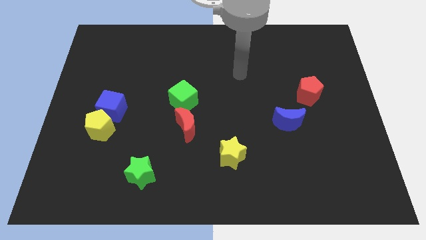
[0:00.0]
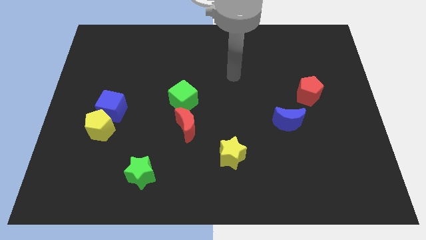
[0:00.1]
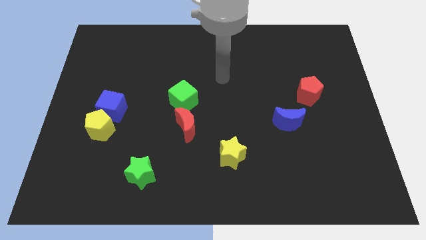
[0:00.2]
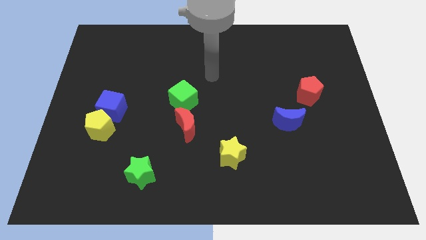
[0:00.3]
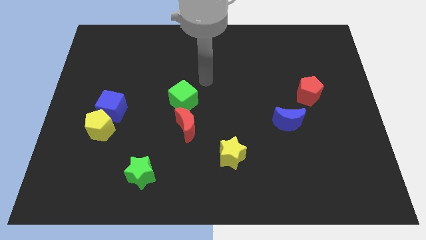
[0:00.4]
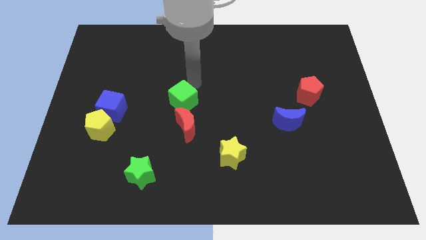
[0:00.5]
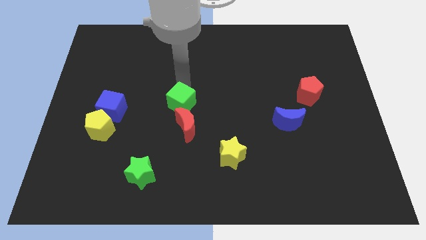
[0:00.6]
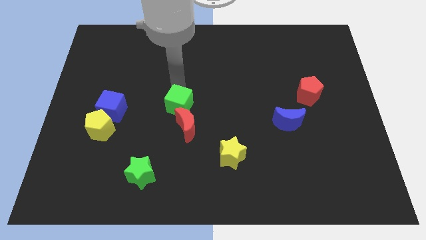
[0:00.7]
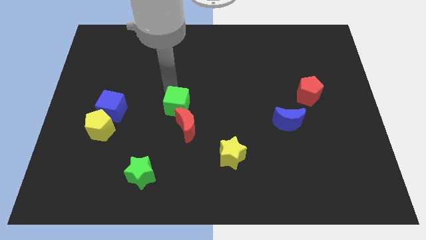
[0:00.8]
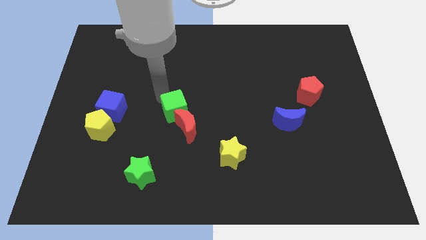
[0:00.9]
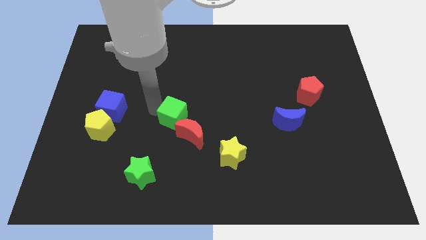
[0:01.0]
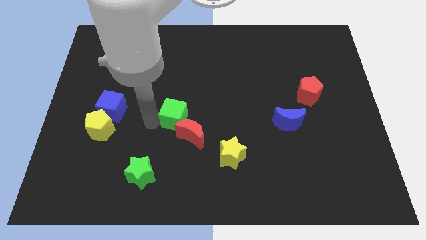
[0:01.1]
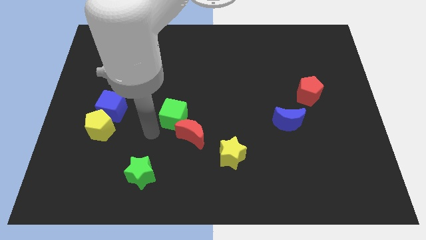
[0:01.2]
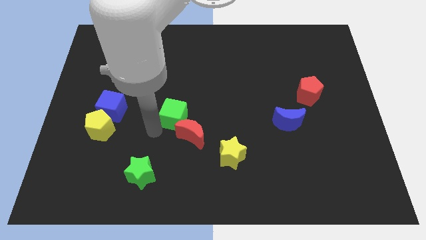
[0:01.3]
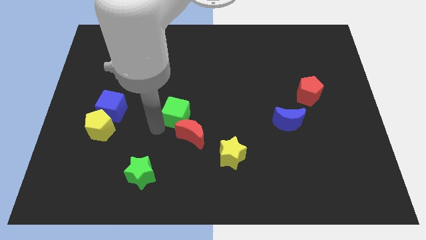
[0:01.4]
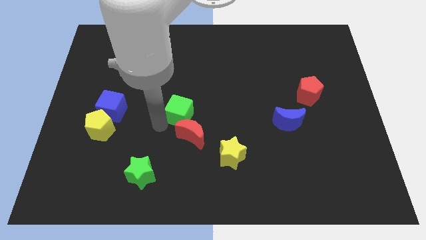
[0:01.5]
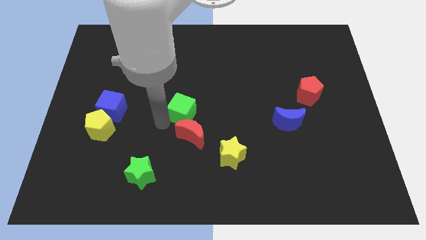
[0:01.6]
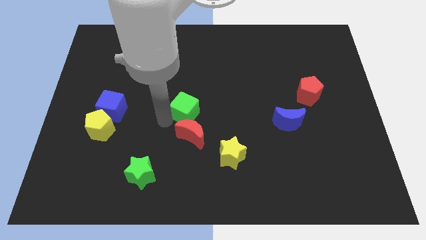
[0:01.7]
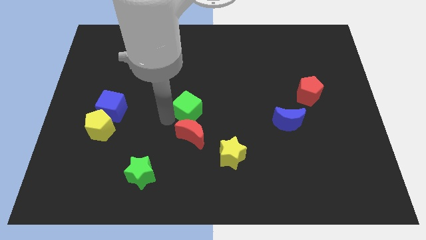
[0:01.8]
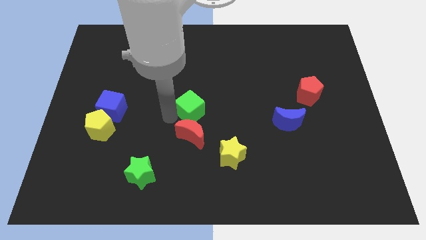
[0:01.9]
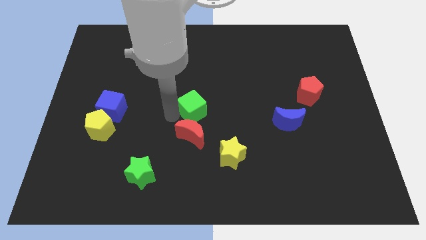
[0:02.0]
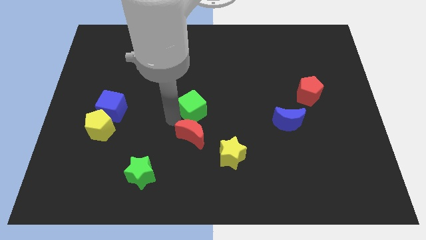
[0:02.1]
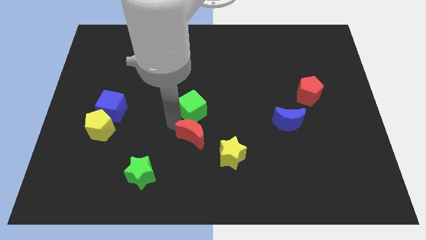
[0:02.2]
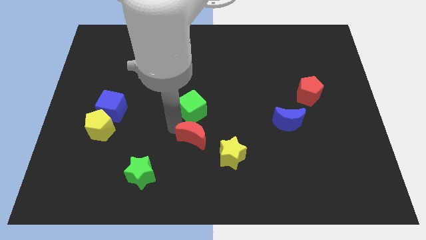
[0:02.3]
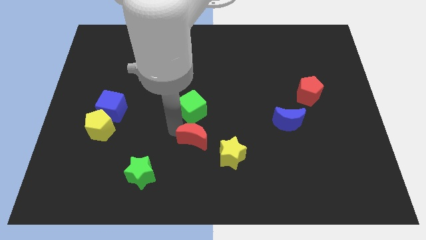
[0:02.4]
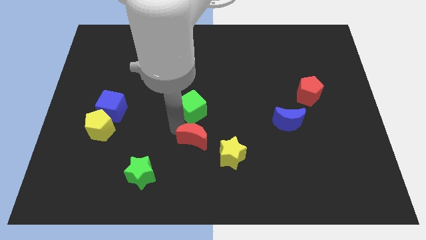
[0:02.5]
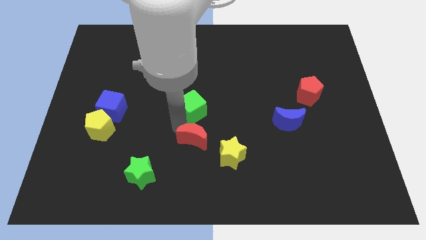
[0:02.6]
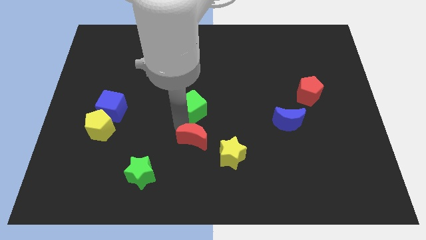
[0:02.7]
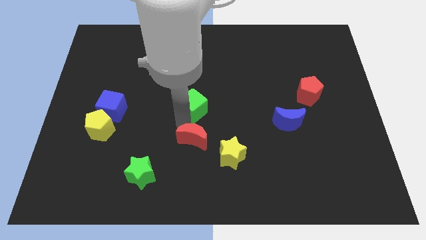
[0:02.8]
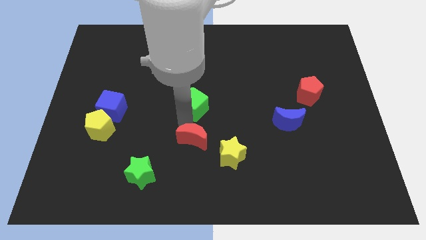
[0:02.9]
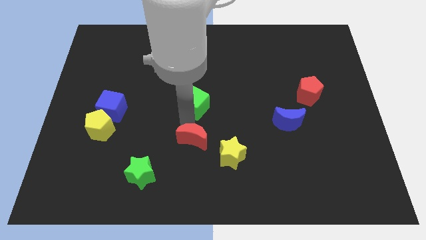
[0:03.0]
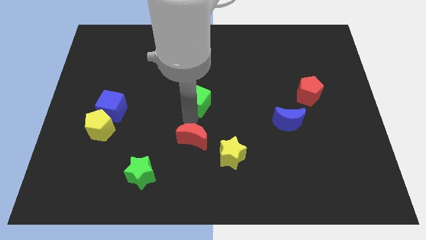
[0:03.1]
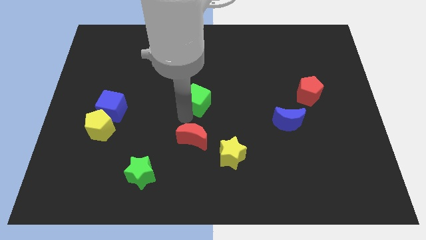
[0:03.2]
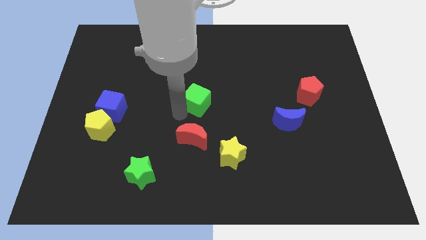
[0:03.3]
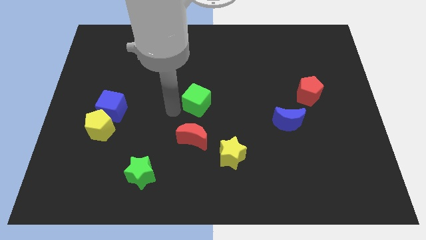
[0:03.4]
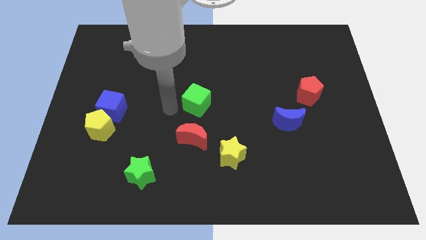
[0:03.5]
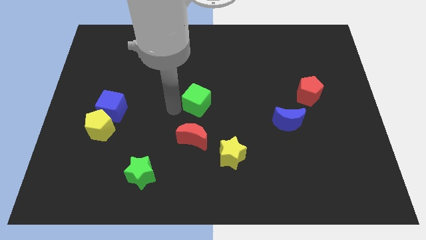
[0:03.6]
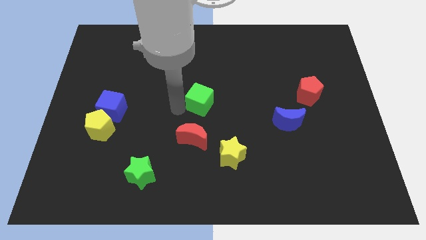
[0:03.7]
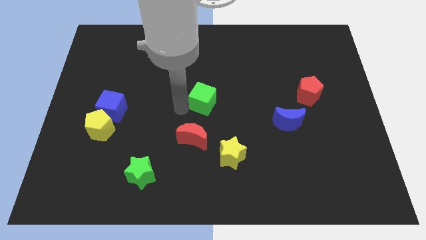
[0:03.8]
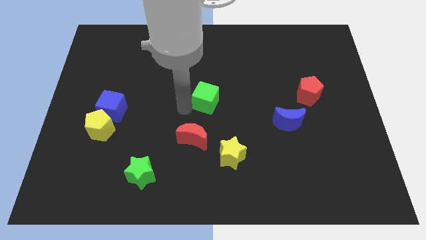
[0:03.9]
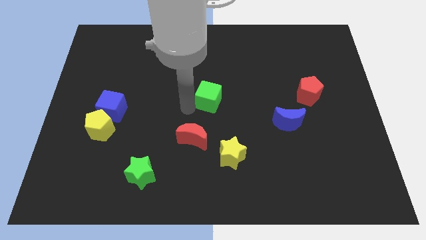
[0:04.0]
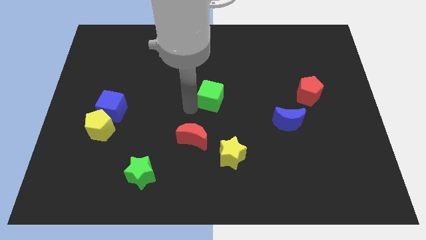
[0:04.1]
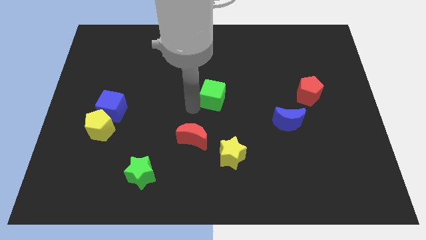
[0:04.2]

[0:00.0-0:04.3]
slightly slide the green cube to the right

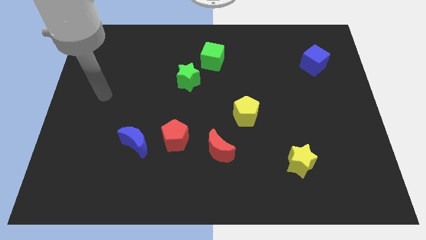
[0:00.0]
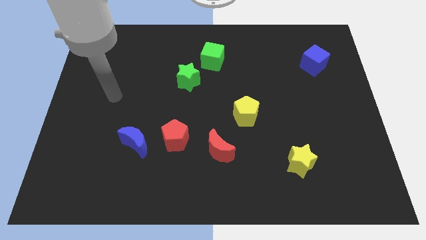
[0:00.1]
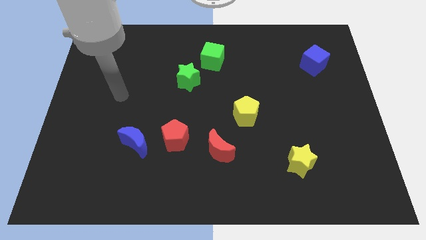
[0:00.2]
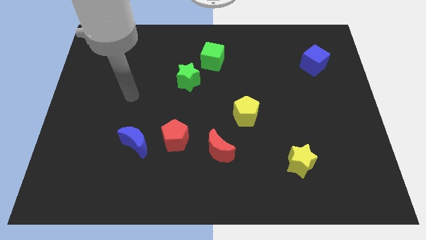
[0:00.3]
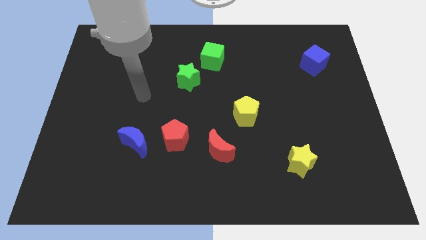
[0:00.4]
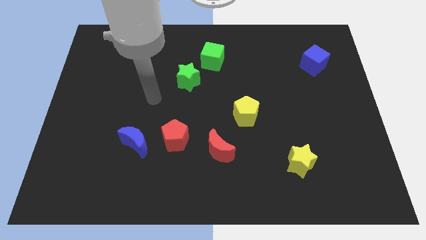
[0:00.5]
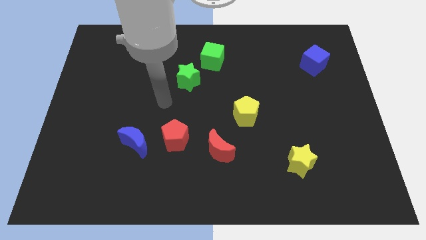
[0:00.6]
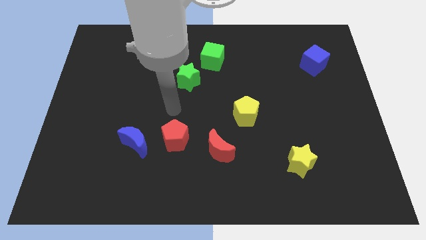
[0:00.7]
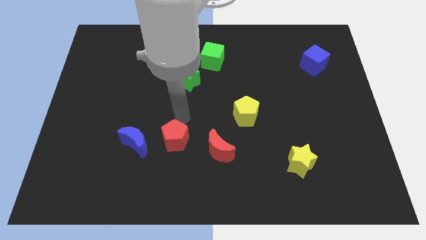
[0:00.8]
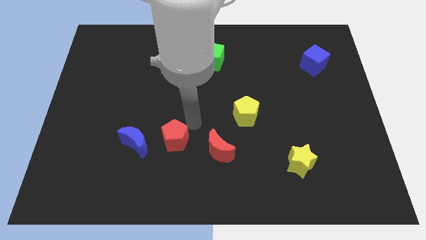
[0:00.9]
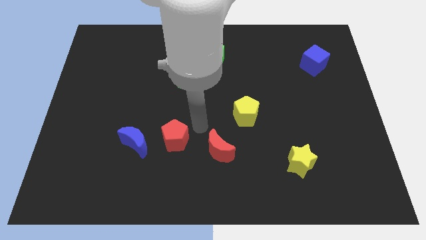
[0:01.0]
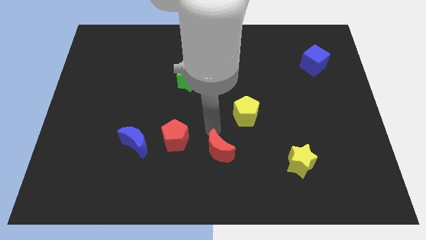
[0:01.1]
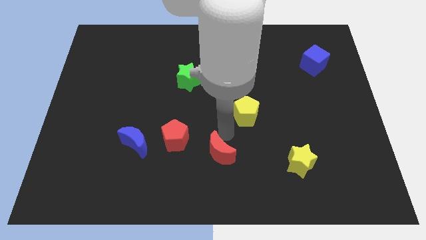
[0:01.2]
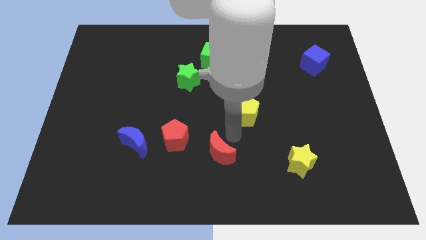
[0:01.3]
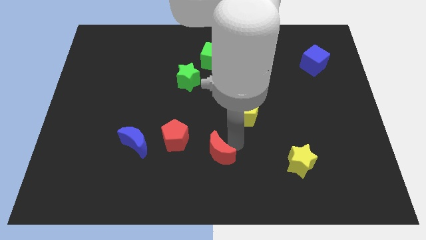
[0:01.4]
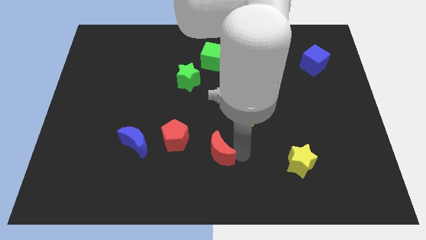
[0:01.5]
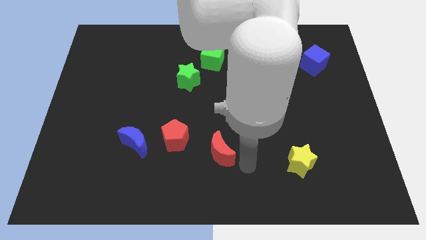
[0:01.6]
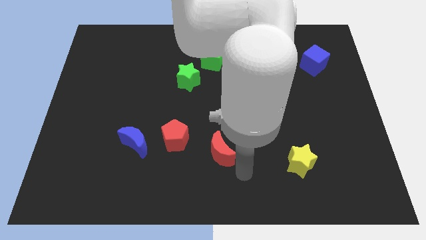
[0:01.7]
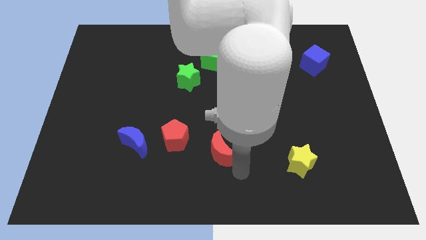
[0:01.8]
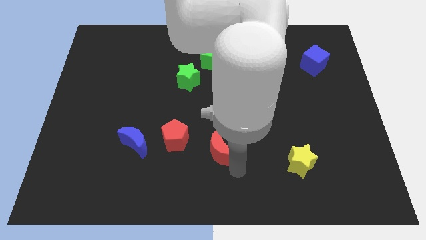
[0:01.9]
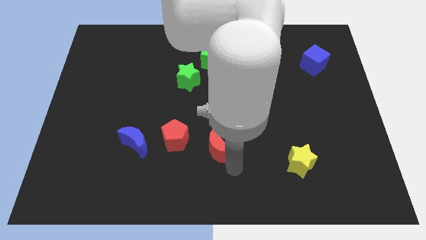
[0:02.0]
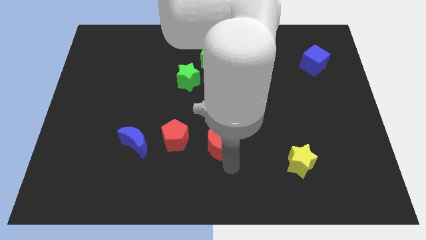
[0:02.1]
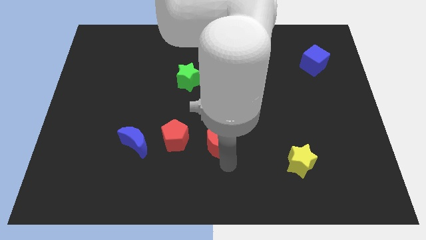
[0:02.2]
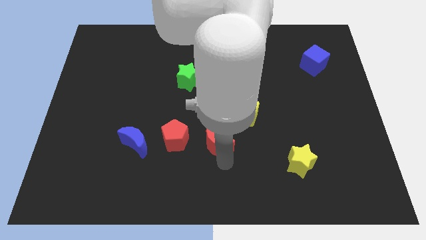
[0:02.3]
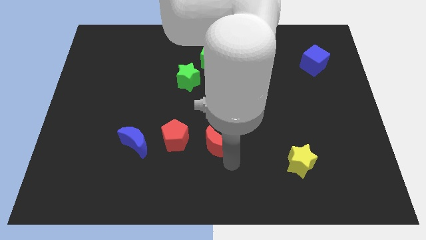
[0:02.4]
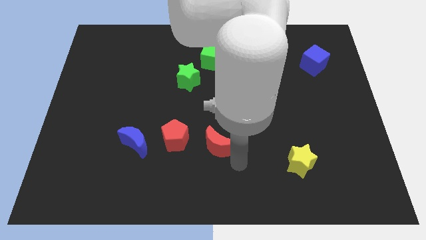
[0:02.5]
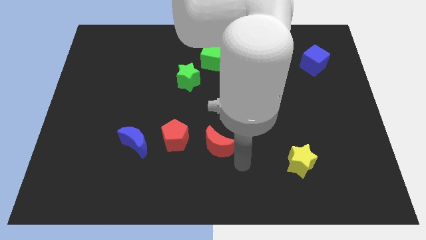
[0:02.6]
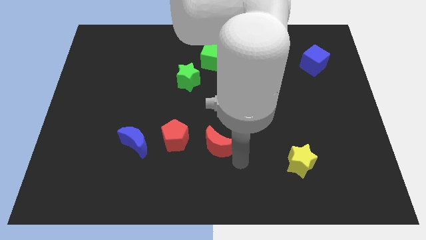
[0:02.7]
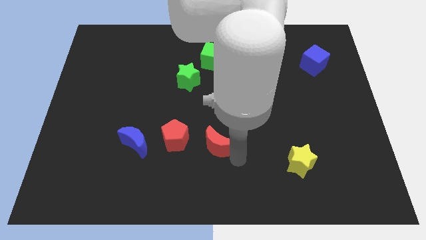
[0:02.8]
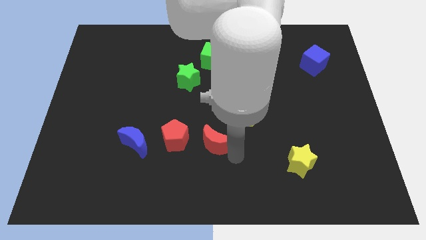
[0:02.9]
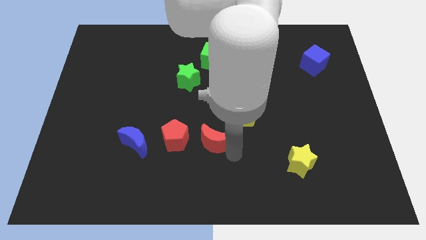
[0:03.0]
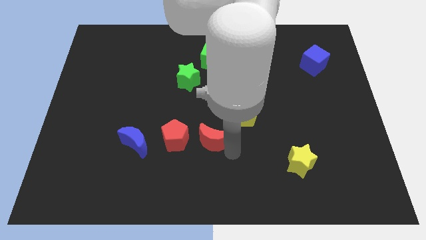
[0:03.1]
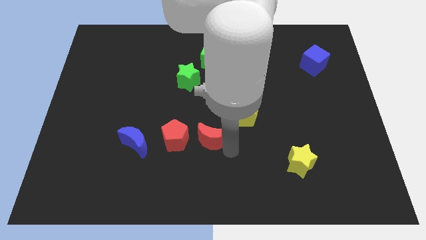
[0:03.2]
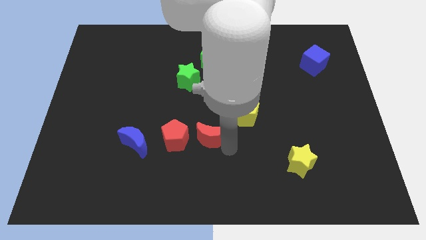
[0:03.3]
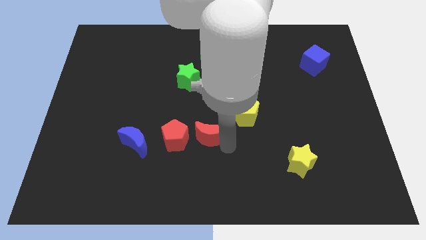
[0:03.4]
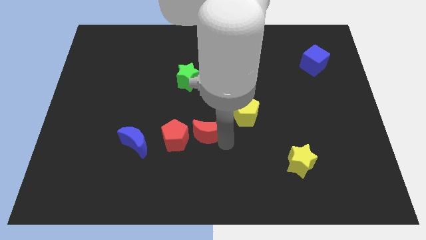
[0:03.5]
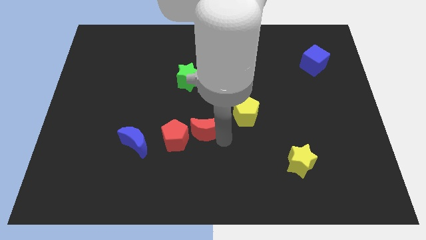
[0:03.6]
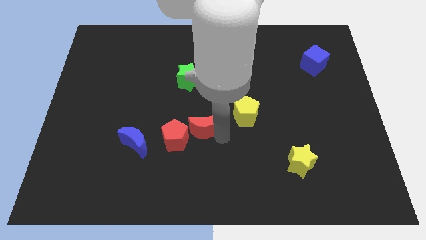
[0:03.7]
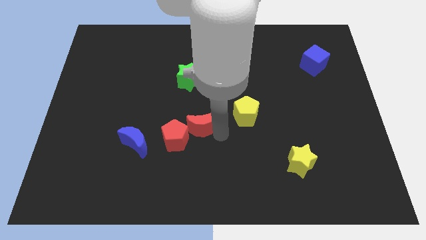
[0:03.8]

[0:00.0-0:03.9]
slightly push the red moon upwards and to the left diagonally
